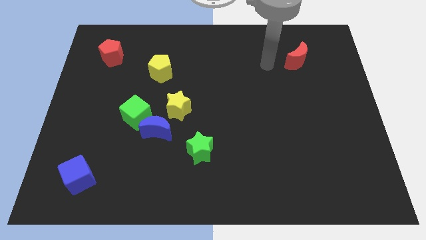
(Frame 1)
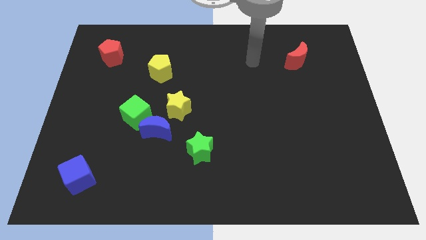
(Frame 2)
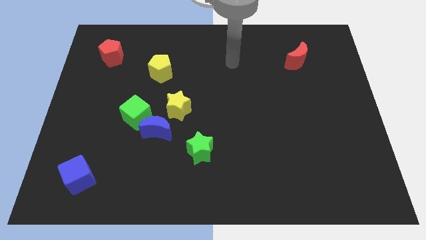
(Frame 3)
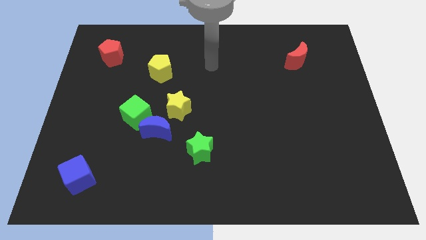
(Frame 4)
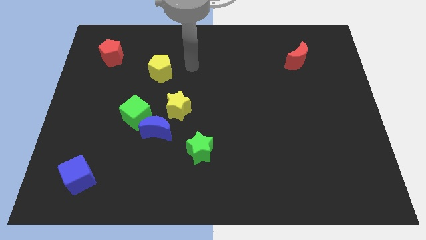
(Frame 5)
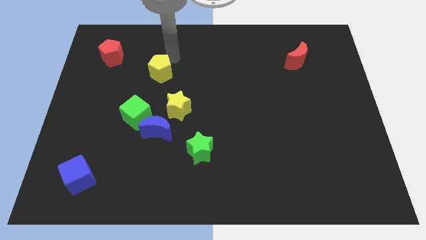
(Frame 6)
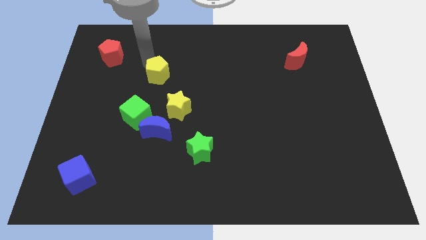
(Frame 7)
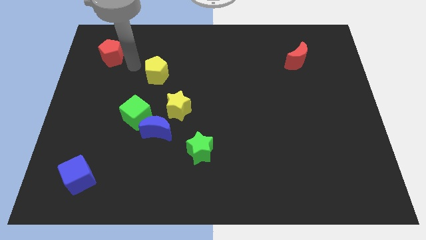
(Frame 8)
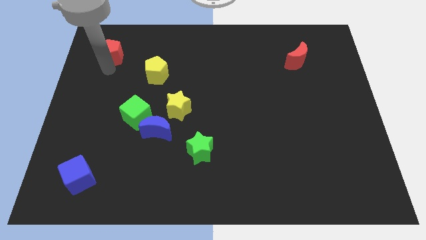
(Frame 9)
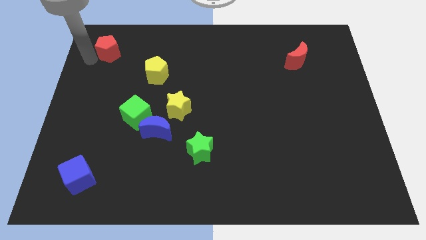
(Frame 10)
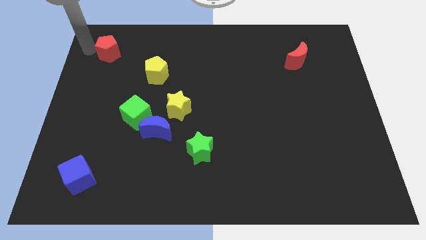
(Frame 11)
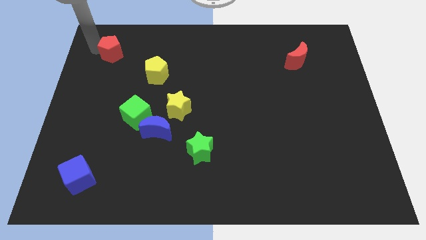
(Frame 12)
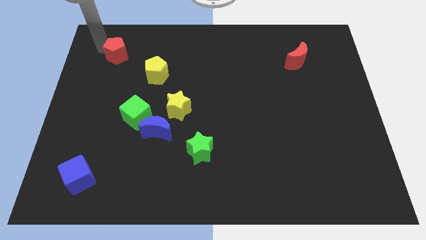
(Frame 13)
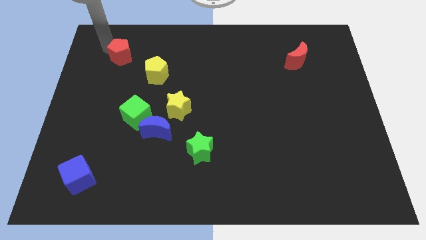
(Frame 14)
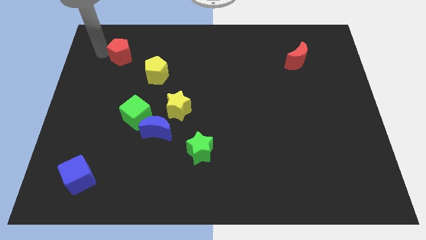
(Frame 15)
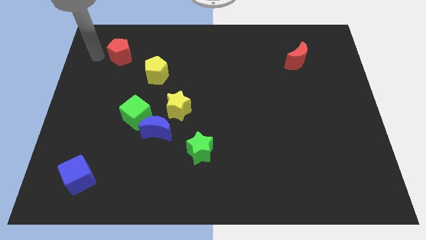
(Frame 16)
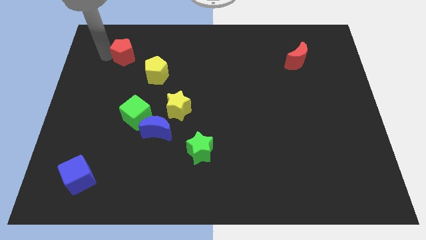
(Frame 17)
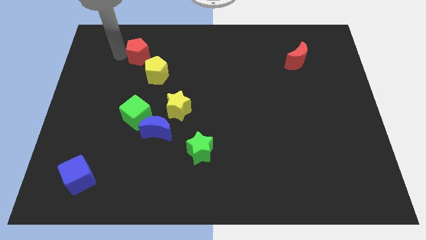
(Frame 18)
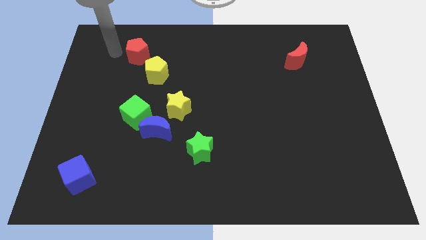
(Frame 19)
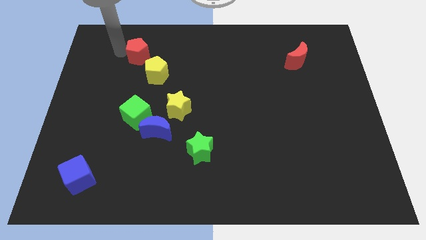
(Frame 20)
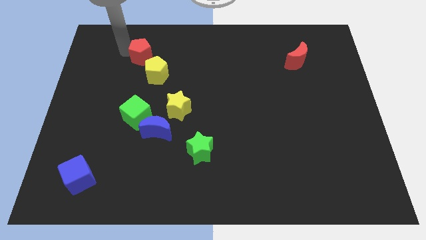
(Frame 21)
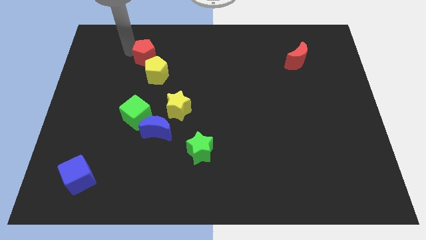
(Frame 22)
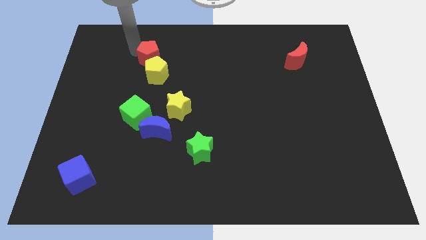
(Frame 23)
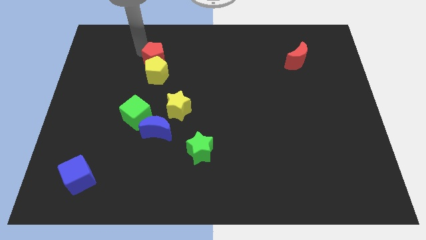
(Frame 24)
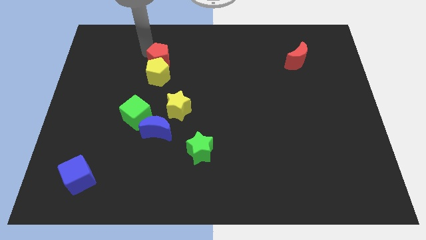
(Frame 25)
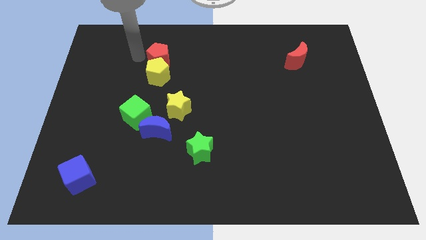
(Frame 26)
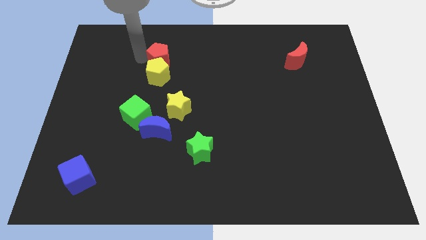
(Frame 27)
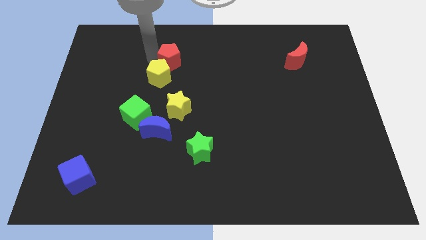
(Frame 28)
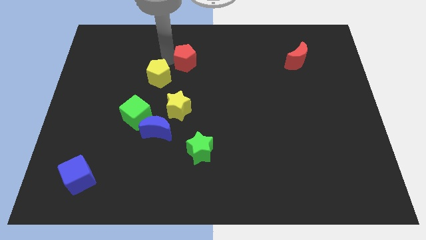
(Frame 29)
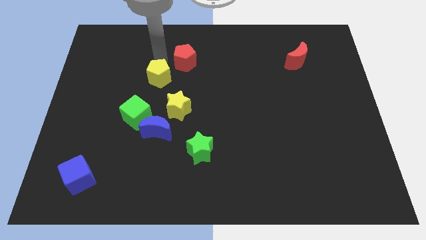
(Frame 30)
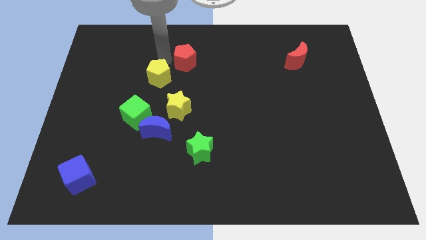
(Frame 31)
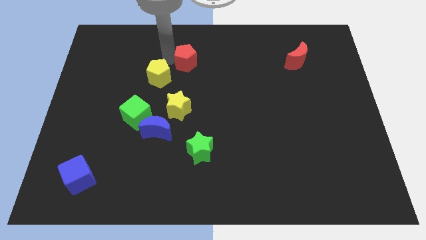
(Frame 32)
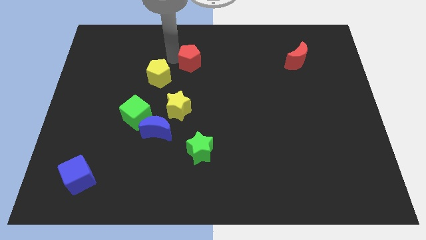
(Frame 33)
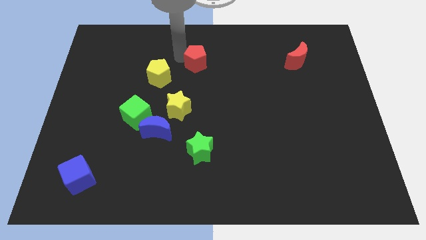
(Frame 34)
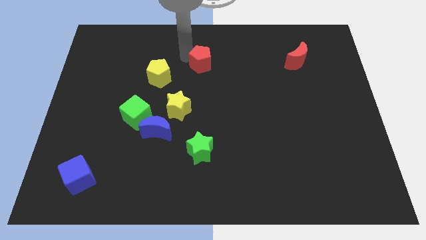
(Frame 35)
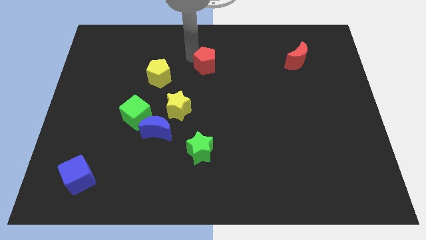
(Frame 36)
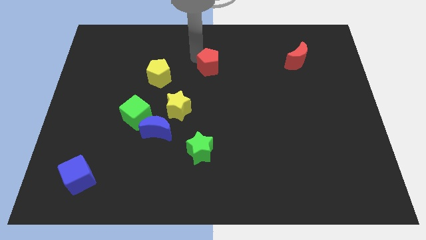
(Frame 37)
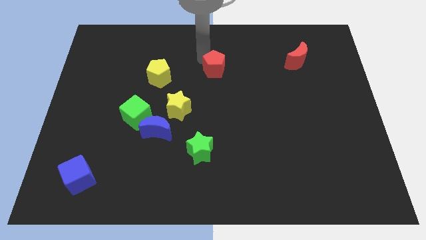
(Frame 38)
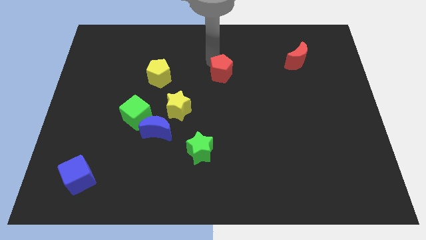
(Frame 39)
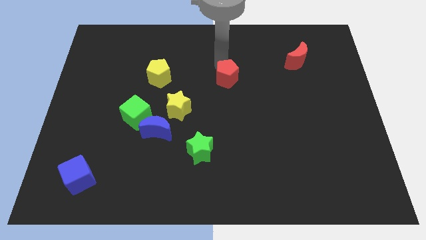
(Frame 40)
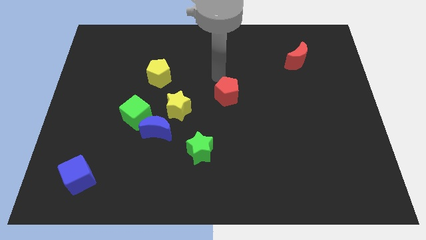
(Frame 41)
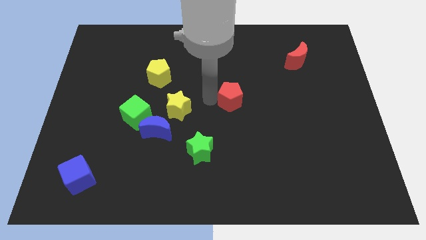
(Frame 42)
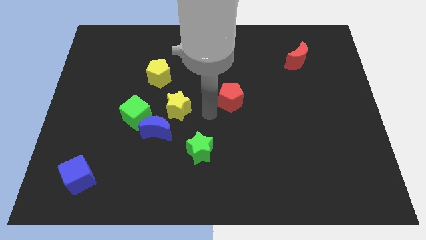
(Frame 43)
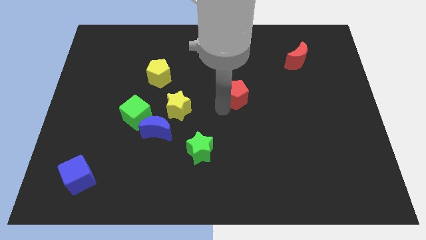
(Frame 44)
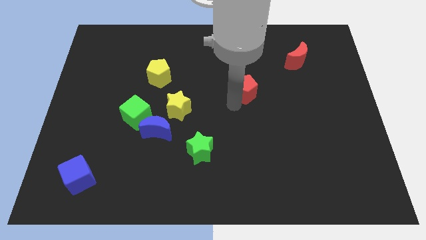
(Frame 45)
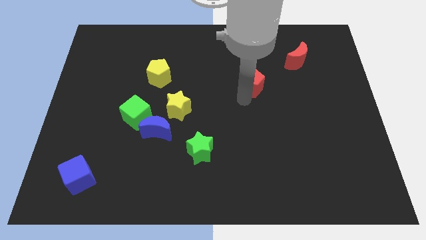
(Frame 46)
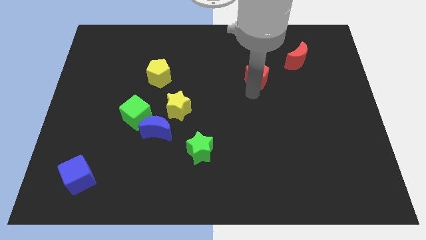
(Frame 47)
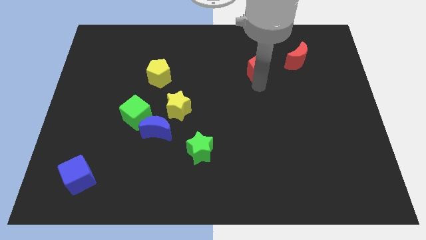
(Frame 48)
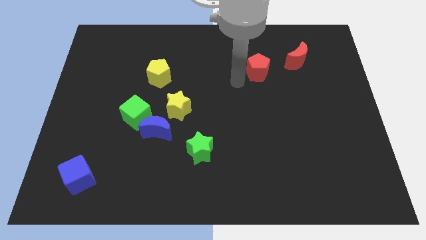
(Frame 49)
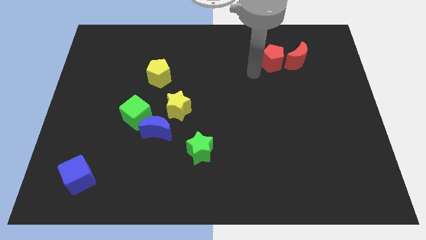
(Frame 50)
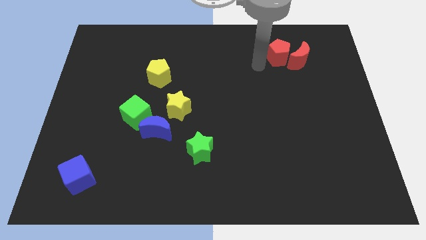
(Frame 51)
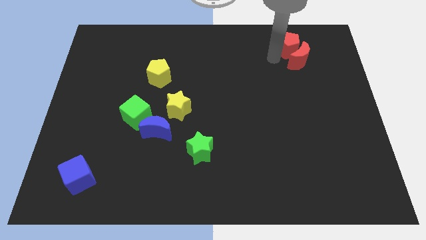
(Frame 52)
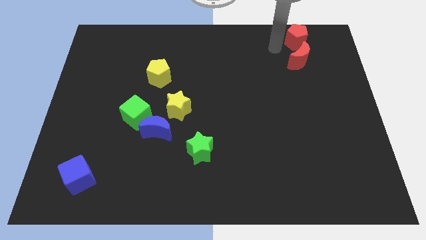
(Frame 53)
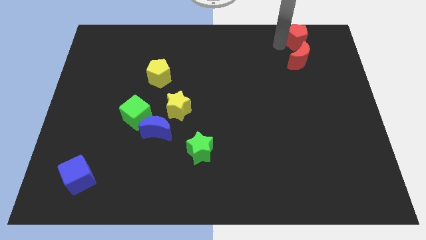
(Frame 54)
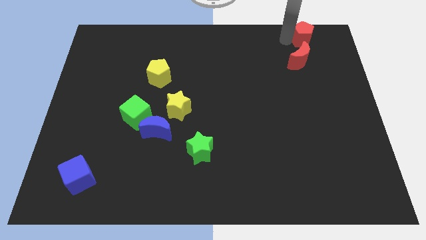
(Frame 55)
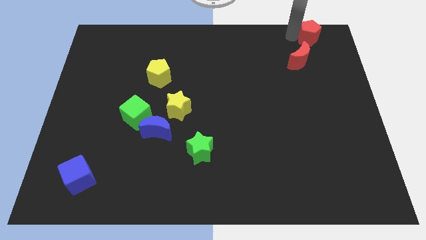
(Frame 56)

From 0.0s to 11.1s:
put the red pentagon to the upper right corner

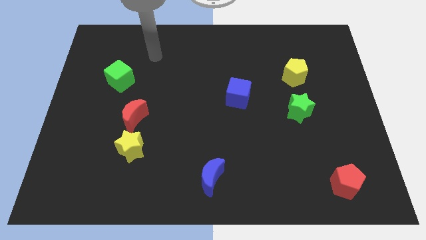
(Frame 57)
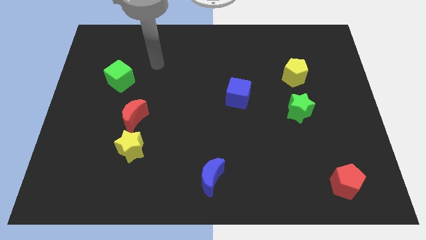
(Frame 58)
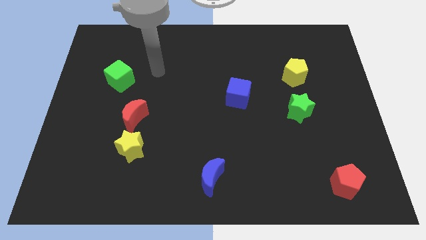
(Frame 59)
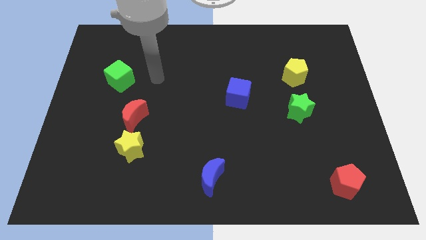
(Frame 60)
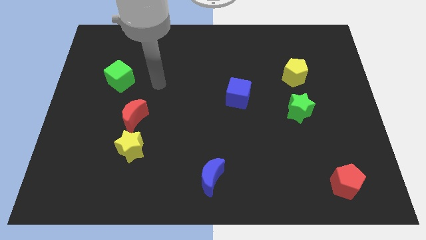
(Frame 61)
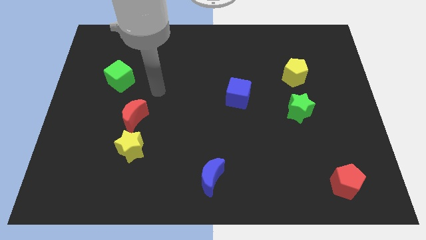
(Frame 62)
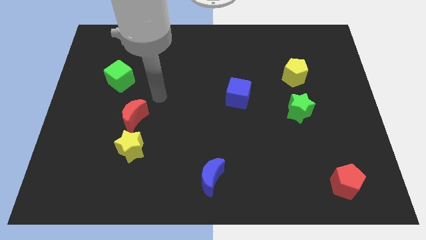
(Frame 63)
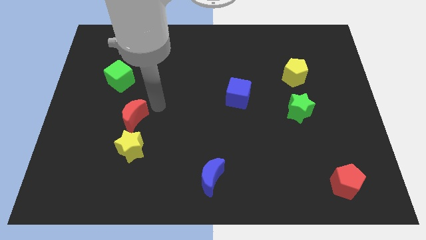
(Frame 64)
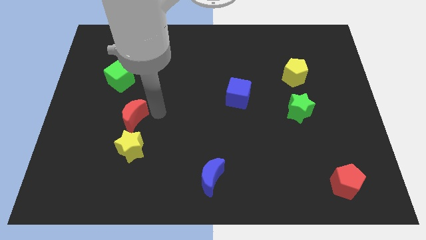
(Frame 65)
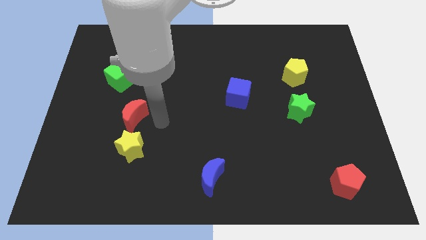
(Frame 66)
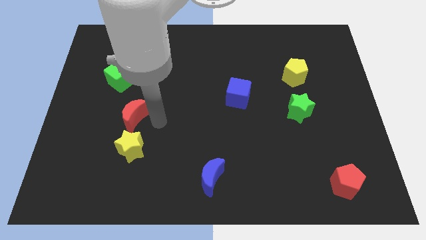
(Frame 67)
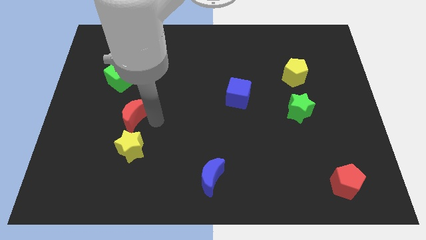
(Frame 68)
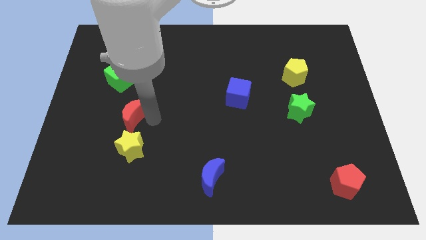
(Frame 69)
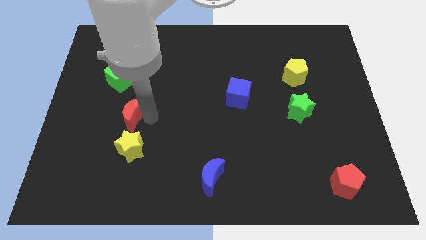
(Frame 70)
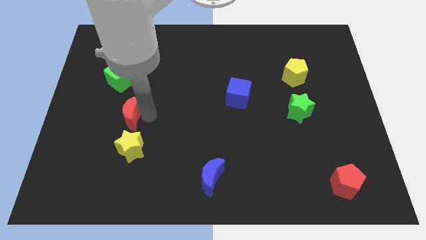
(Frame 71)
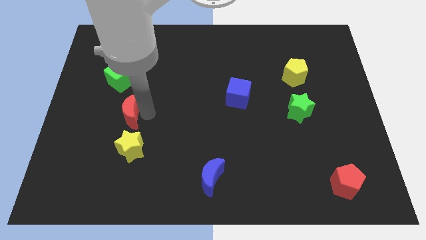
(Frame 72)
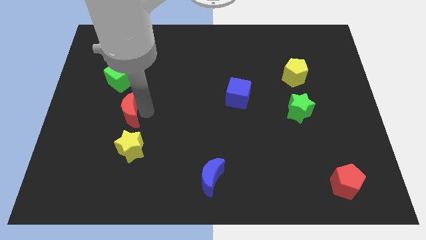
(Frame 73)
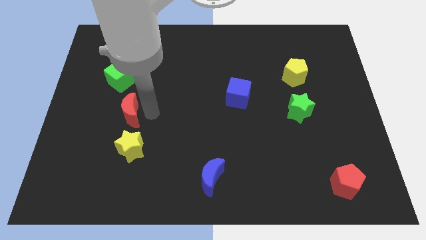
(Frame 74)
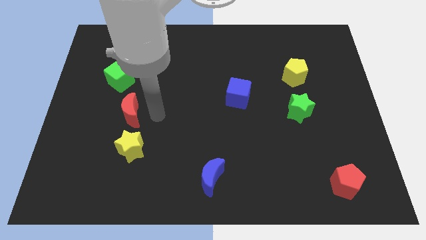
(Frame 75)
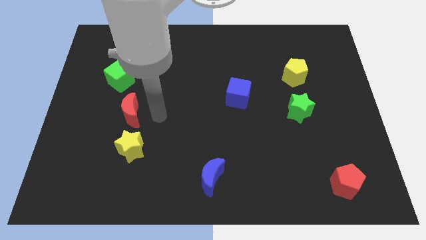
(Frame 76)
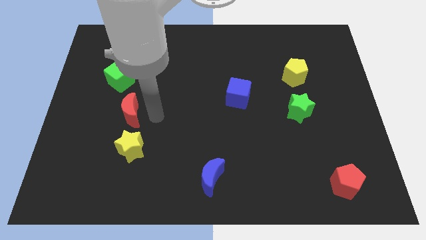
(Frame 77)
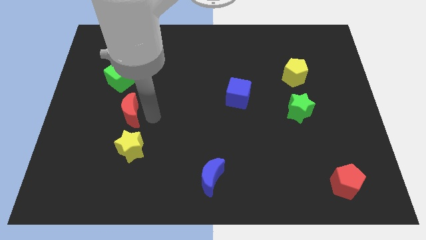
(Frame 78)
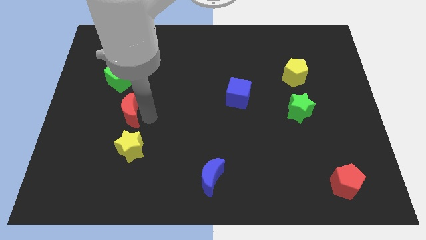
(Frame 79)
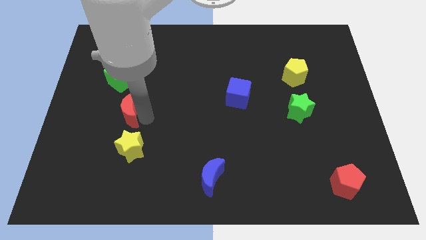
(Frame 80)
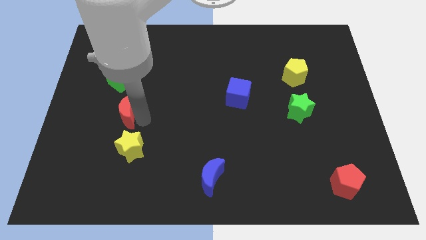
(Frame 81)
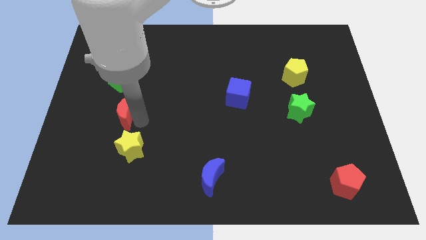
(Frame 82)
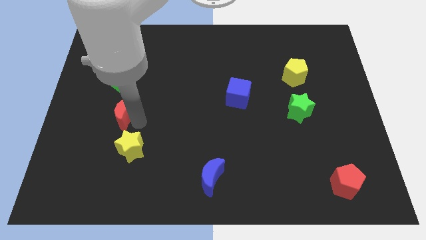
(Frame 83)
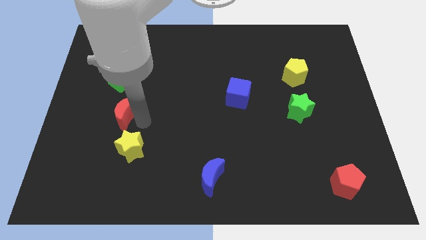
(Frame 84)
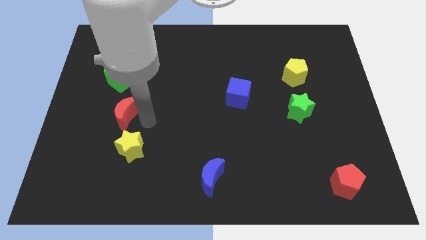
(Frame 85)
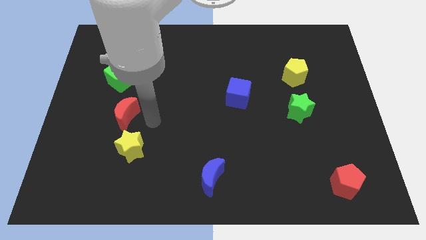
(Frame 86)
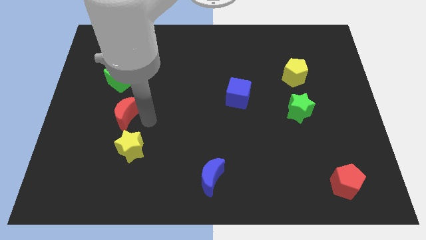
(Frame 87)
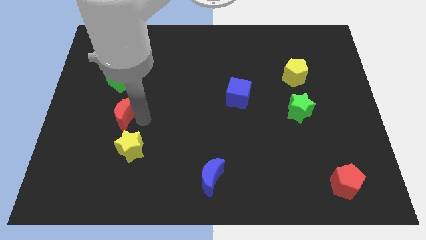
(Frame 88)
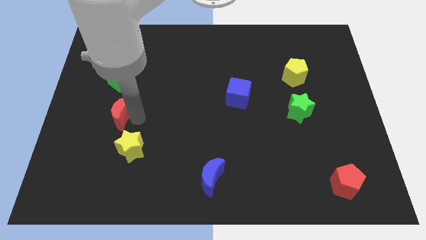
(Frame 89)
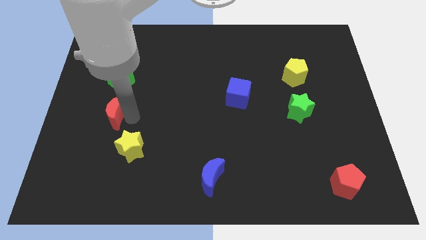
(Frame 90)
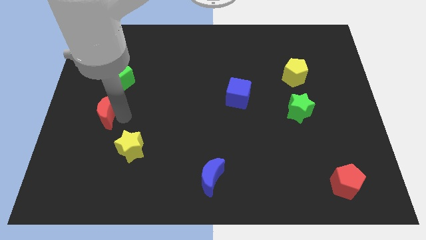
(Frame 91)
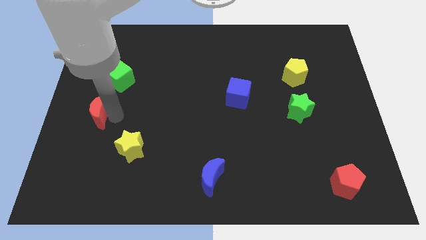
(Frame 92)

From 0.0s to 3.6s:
push the red moon to the left side of the board
